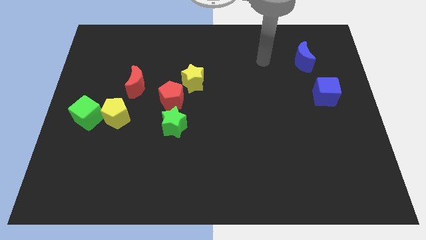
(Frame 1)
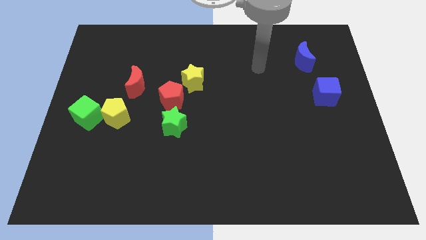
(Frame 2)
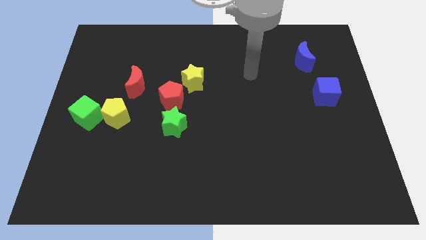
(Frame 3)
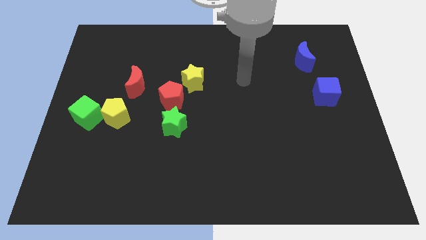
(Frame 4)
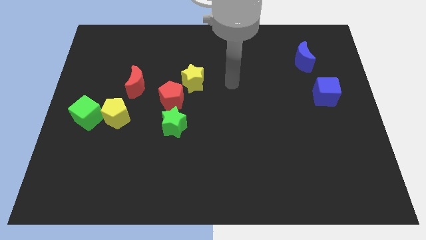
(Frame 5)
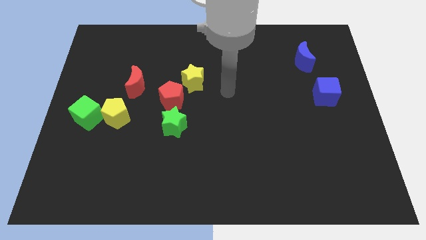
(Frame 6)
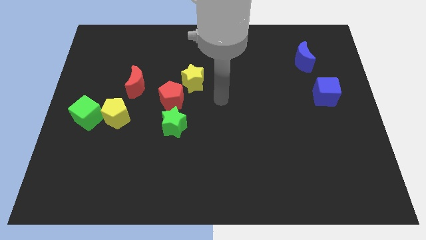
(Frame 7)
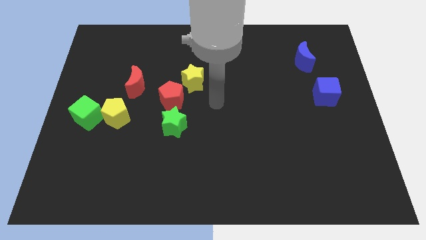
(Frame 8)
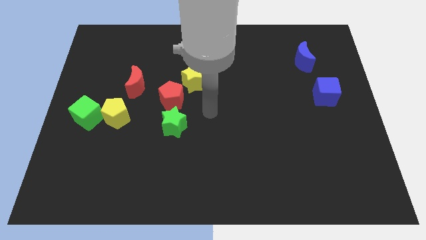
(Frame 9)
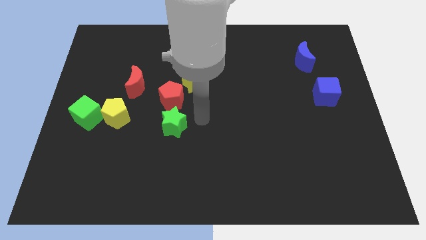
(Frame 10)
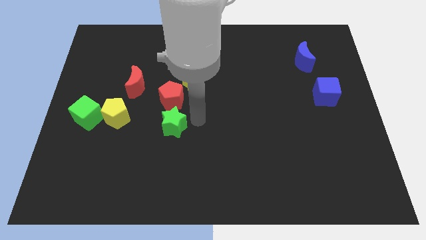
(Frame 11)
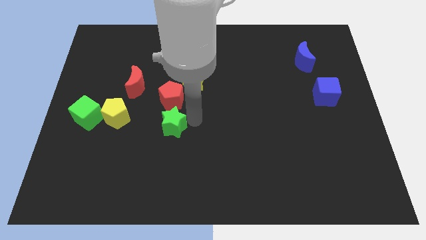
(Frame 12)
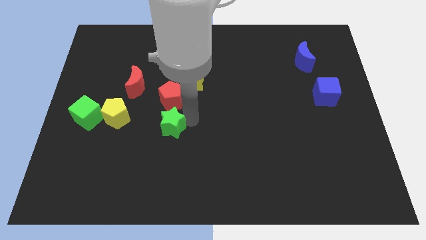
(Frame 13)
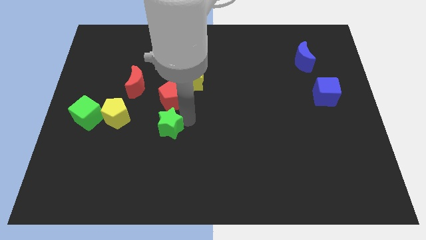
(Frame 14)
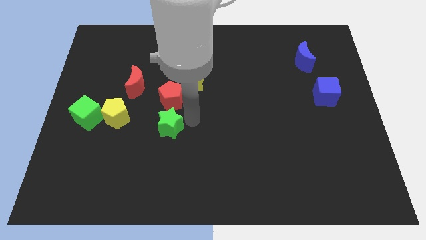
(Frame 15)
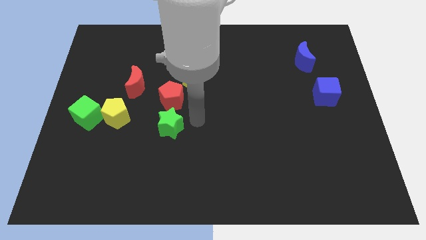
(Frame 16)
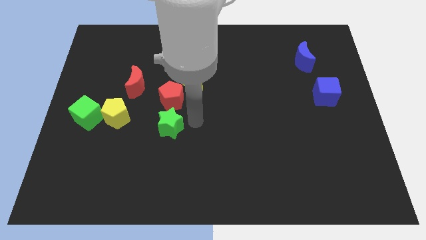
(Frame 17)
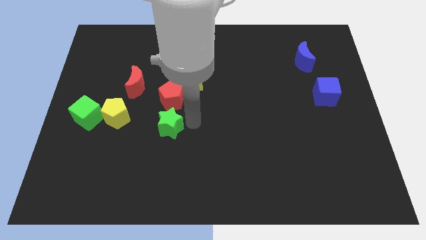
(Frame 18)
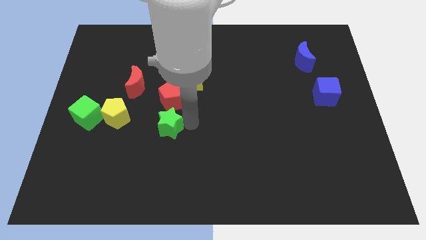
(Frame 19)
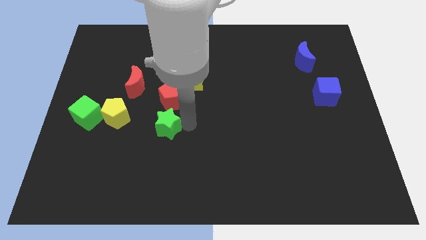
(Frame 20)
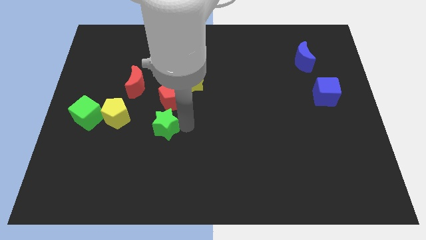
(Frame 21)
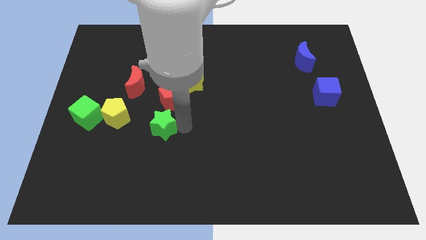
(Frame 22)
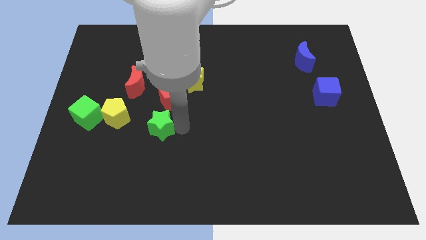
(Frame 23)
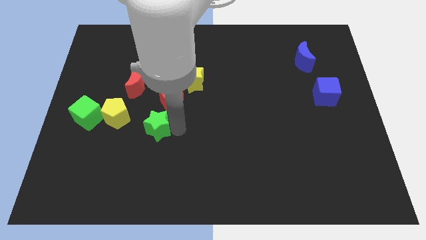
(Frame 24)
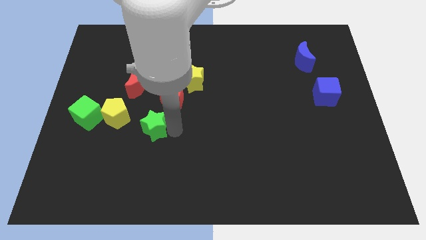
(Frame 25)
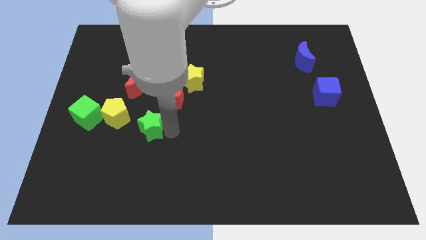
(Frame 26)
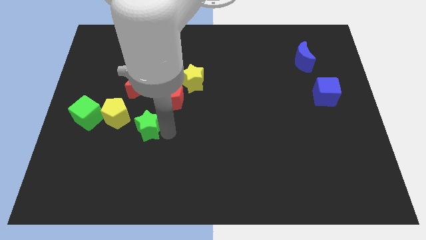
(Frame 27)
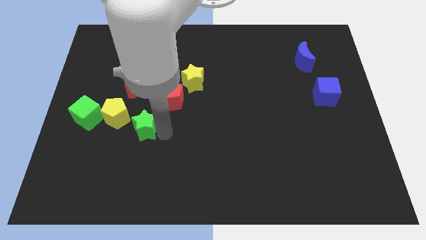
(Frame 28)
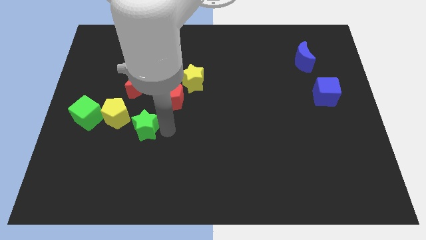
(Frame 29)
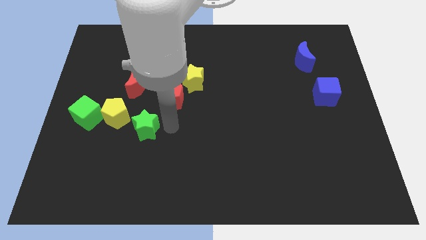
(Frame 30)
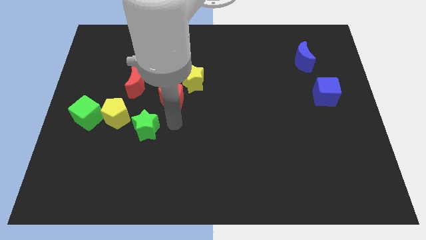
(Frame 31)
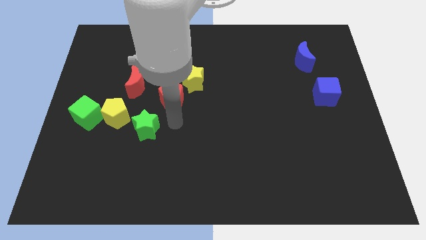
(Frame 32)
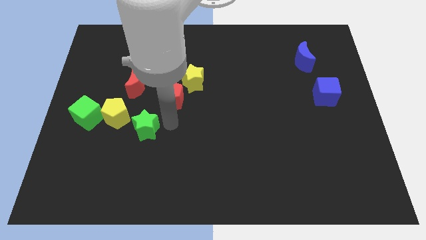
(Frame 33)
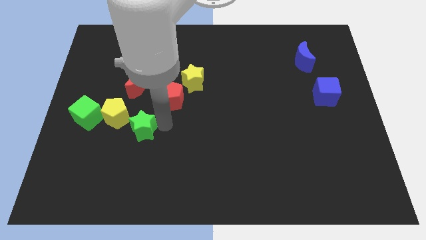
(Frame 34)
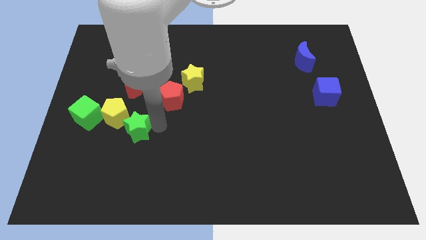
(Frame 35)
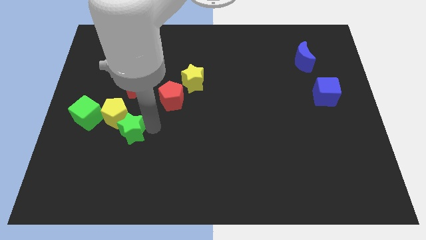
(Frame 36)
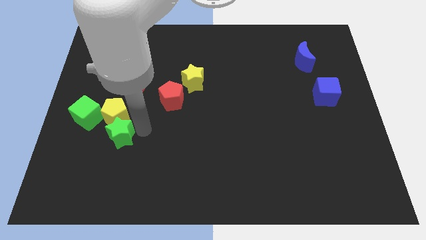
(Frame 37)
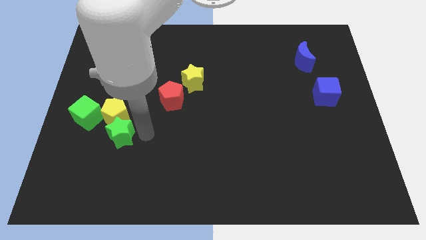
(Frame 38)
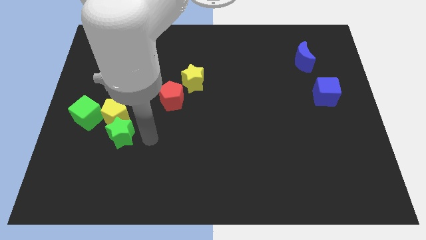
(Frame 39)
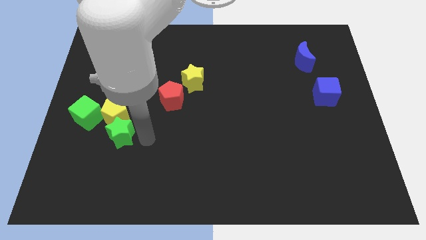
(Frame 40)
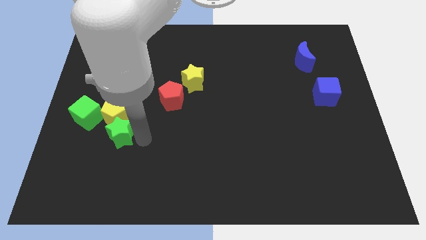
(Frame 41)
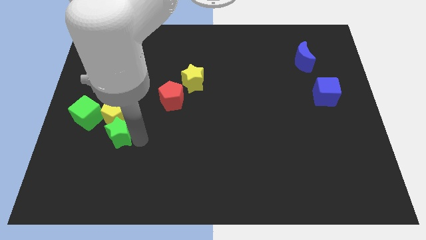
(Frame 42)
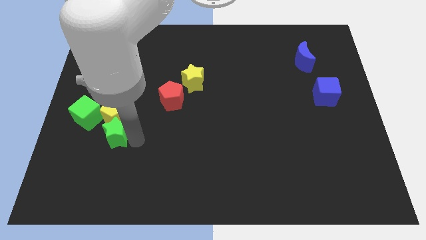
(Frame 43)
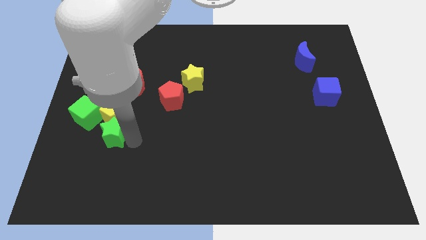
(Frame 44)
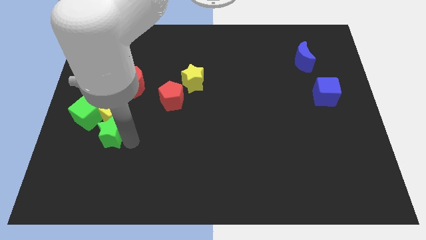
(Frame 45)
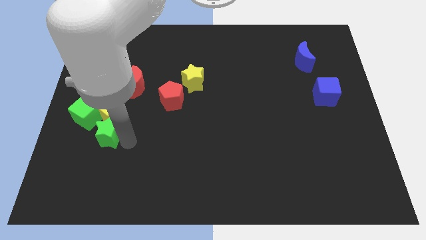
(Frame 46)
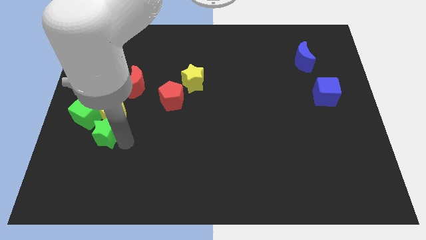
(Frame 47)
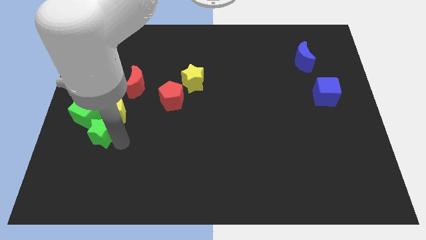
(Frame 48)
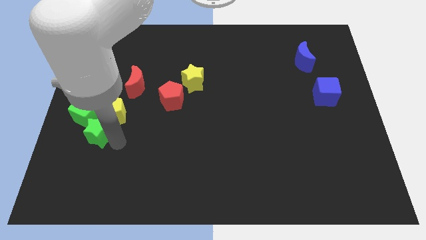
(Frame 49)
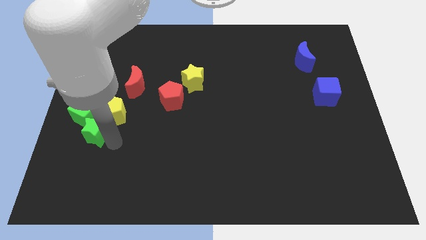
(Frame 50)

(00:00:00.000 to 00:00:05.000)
move the green star towards the green cube
